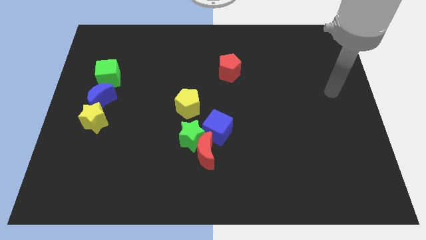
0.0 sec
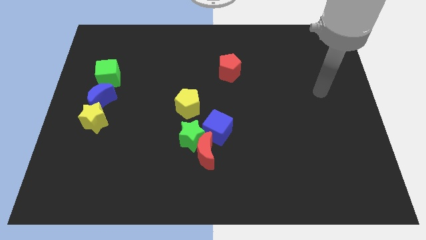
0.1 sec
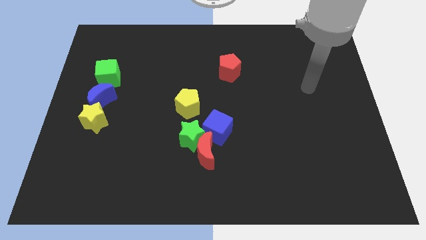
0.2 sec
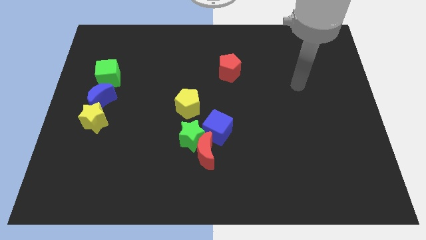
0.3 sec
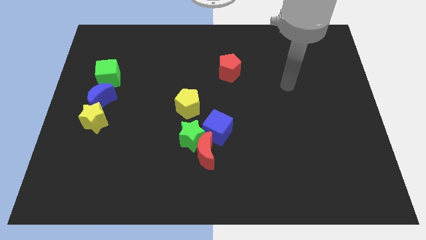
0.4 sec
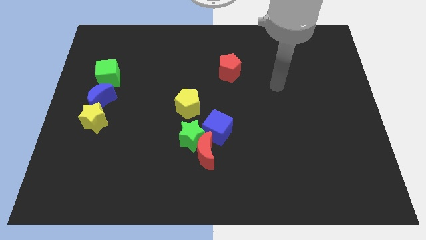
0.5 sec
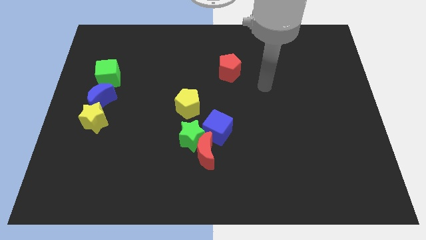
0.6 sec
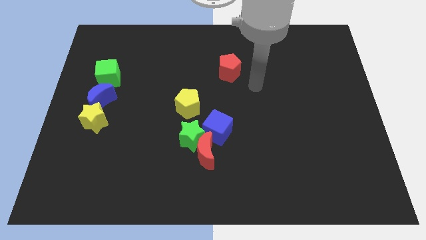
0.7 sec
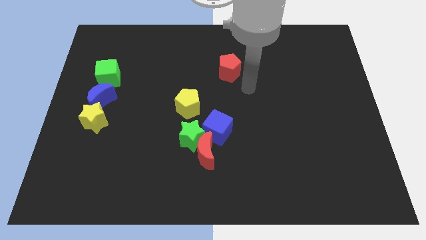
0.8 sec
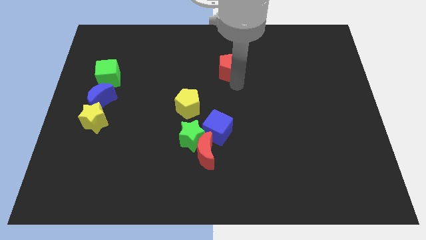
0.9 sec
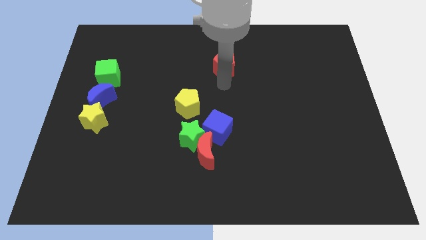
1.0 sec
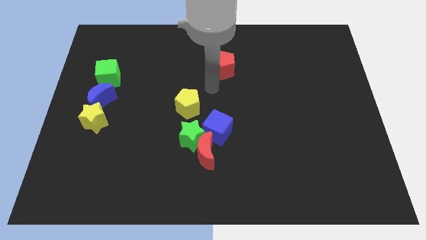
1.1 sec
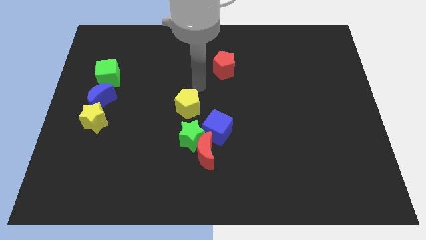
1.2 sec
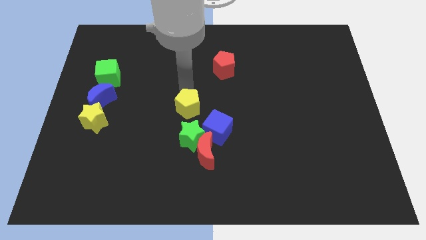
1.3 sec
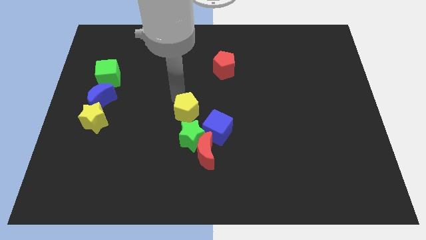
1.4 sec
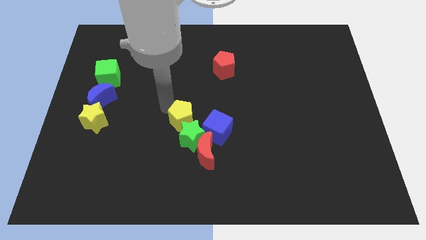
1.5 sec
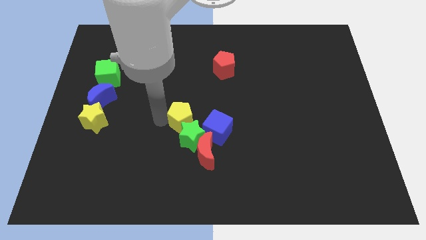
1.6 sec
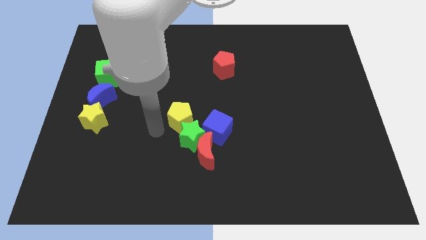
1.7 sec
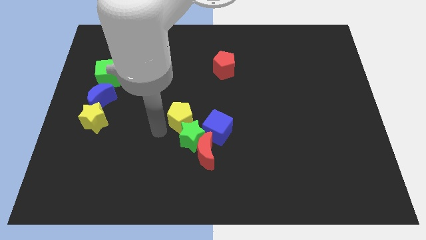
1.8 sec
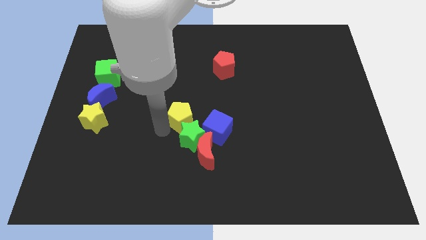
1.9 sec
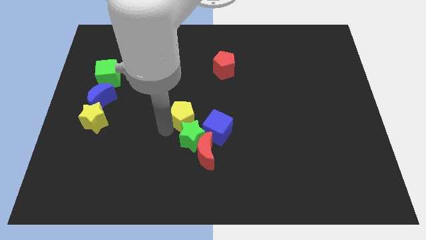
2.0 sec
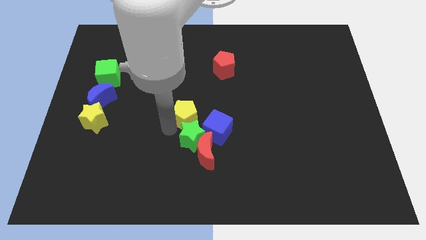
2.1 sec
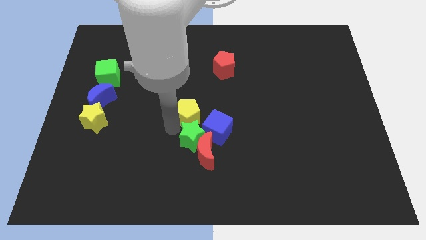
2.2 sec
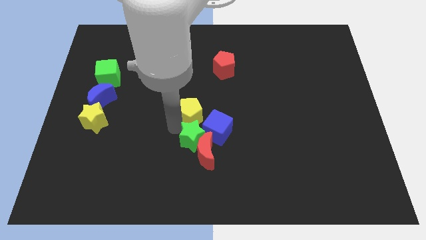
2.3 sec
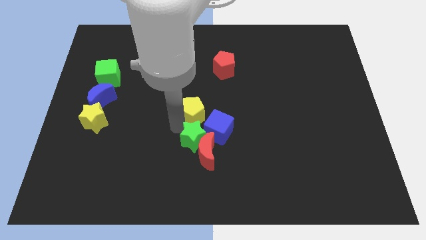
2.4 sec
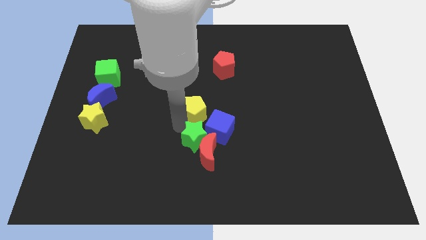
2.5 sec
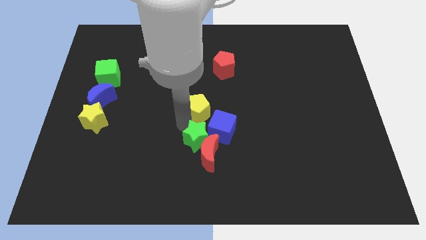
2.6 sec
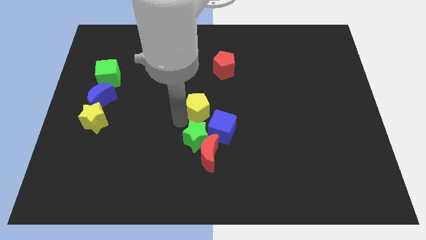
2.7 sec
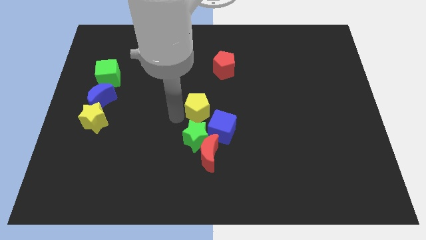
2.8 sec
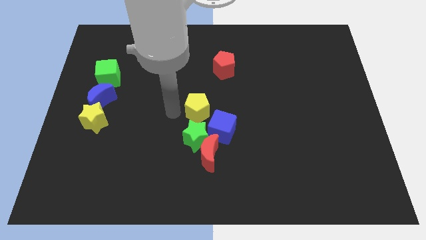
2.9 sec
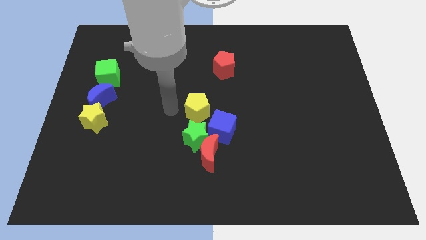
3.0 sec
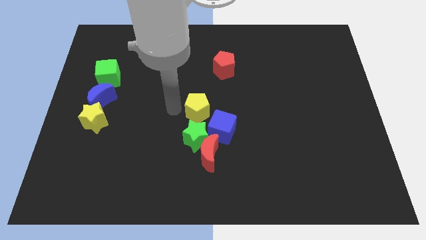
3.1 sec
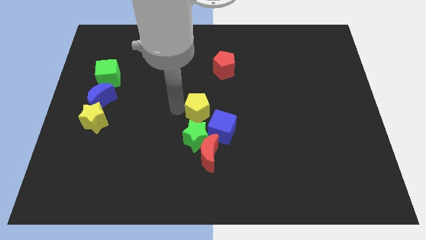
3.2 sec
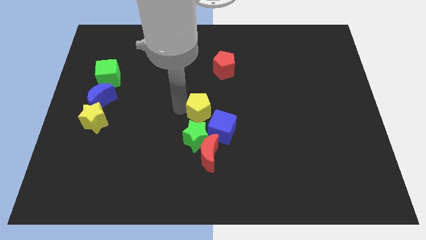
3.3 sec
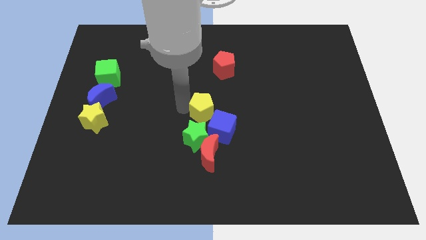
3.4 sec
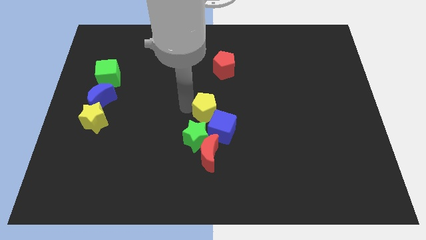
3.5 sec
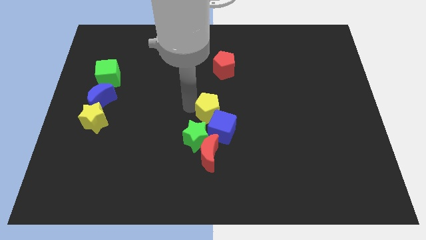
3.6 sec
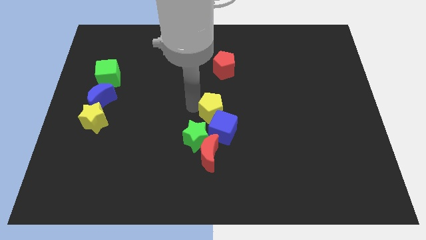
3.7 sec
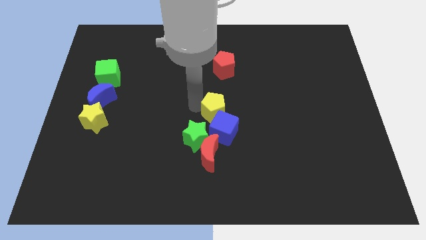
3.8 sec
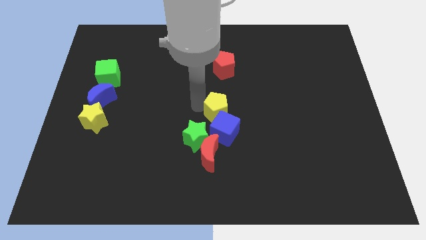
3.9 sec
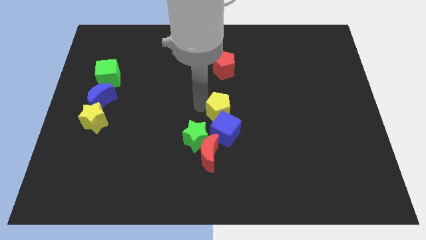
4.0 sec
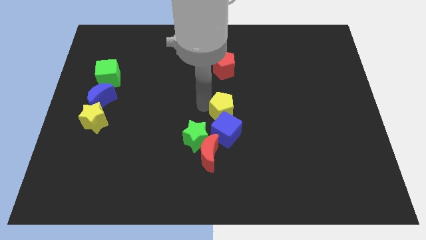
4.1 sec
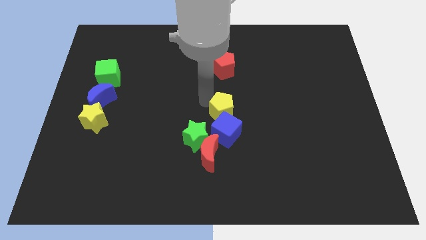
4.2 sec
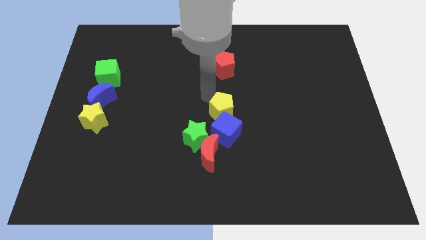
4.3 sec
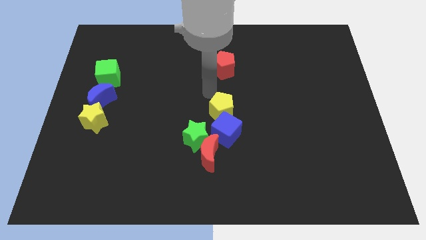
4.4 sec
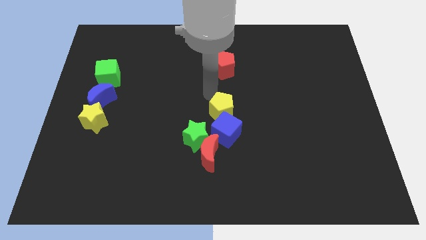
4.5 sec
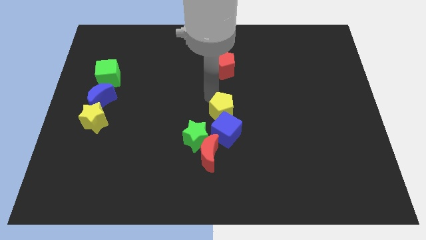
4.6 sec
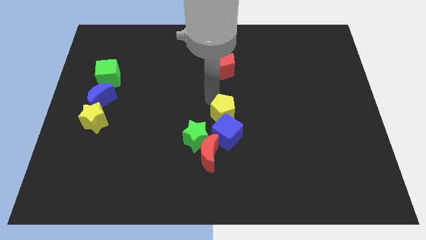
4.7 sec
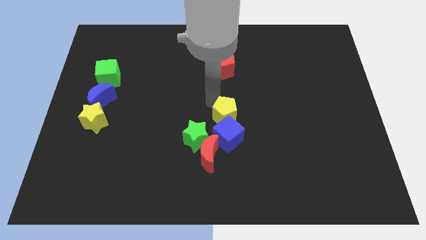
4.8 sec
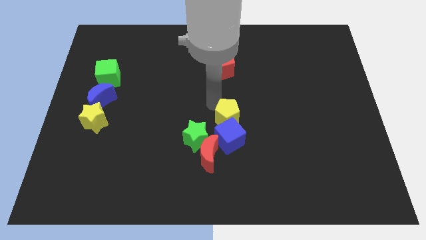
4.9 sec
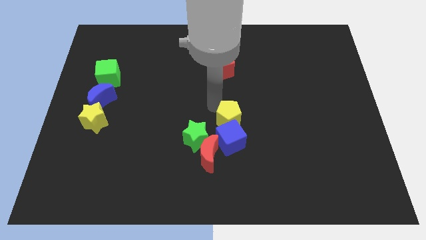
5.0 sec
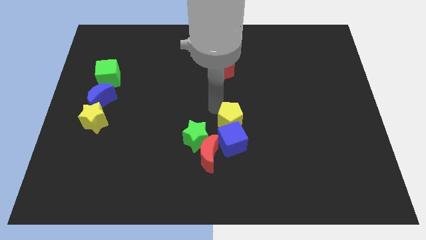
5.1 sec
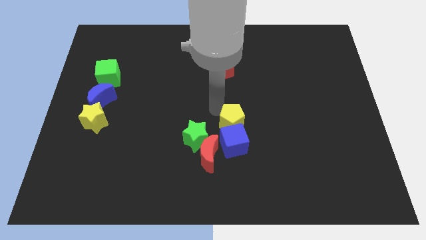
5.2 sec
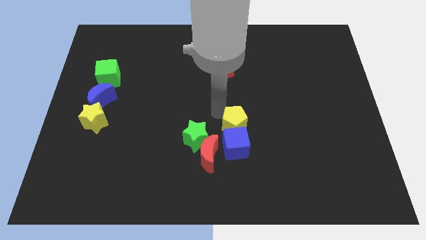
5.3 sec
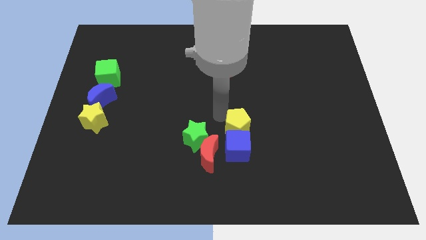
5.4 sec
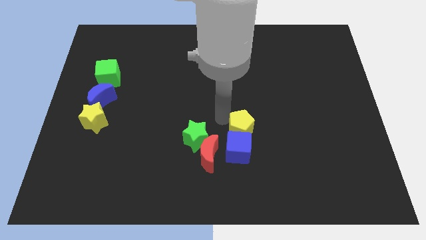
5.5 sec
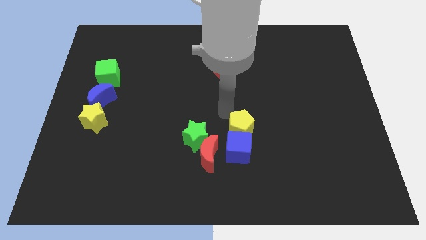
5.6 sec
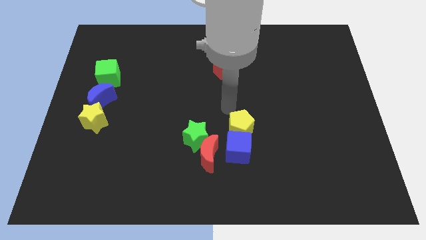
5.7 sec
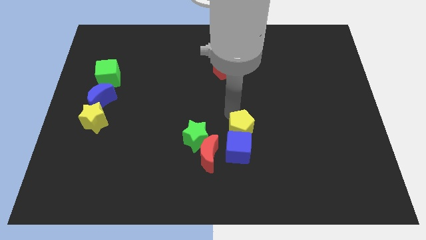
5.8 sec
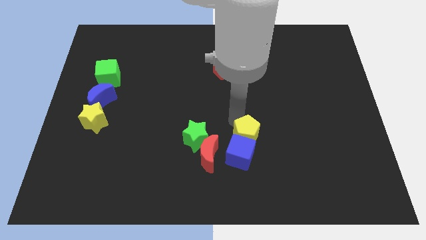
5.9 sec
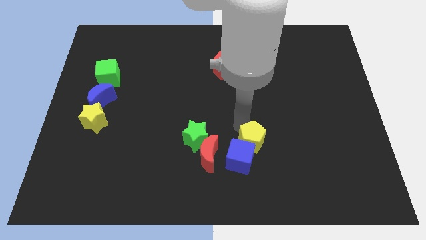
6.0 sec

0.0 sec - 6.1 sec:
push the yellow pentagon to the right of the red moon
